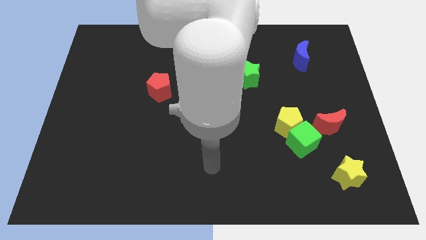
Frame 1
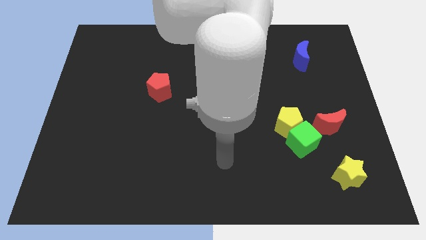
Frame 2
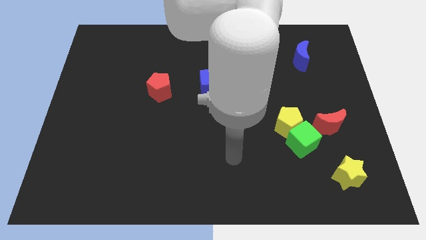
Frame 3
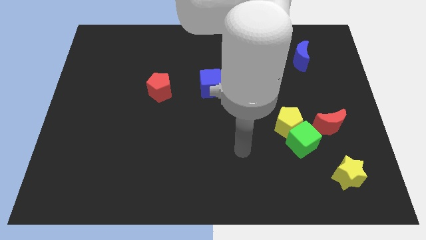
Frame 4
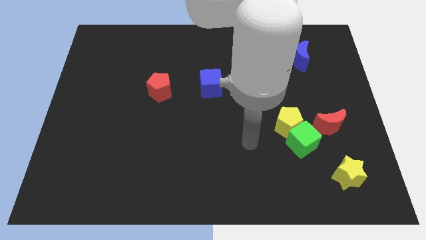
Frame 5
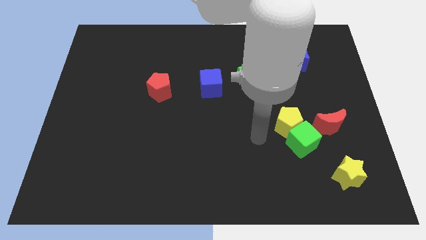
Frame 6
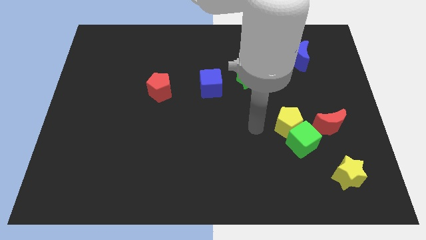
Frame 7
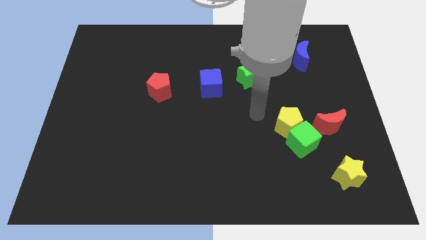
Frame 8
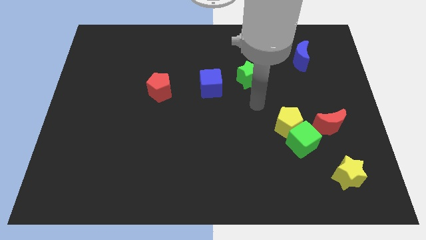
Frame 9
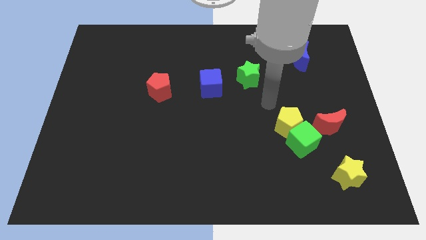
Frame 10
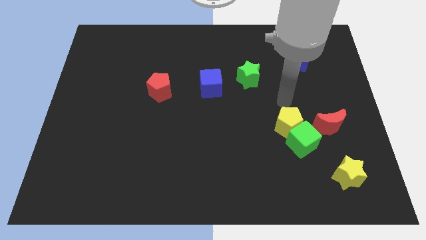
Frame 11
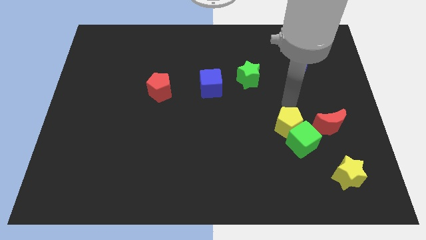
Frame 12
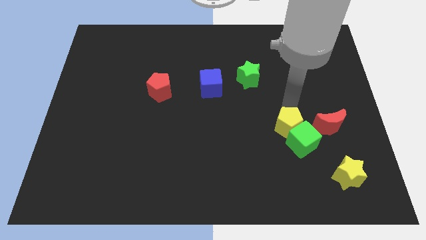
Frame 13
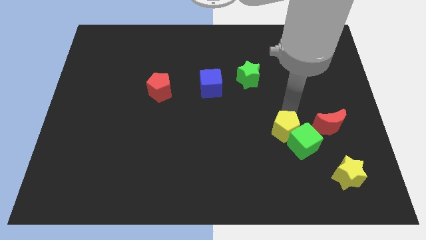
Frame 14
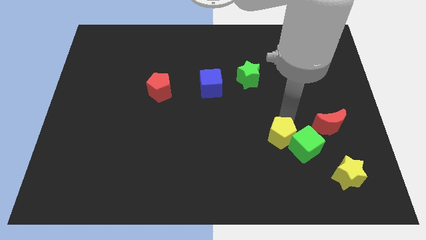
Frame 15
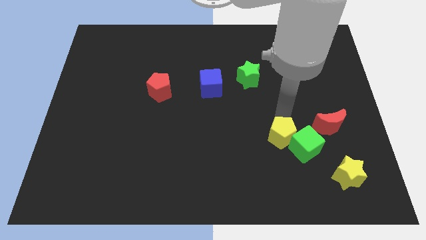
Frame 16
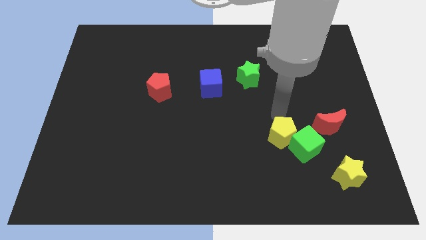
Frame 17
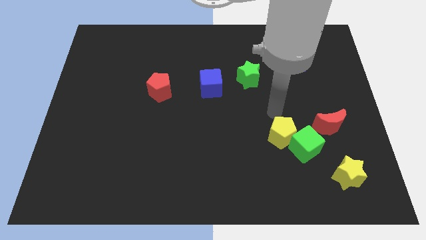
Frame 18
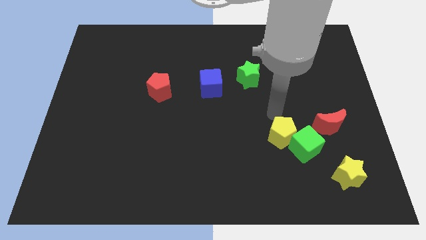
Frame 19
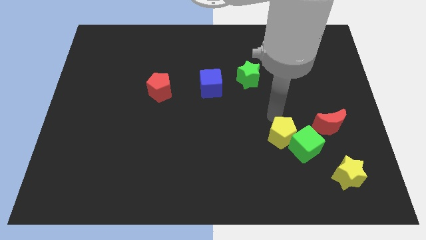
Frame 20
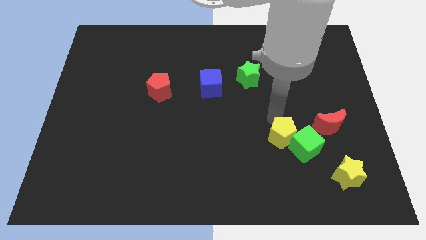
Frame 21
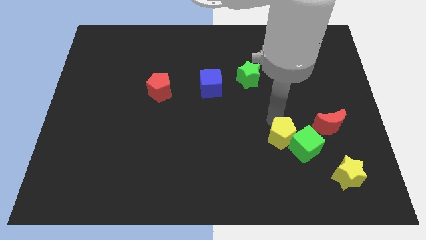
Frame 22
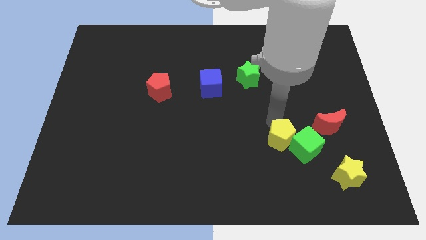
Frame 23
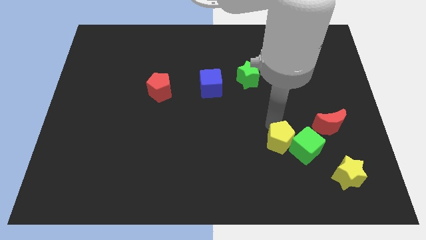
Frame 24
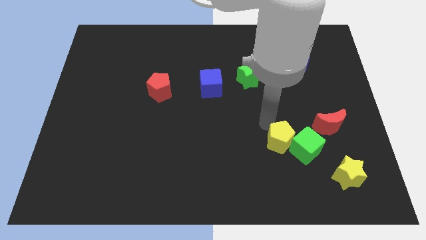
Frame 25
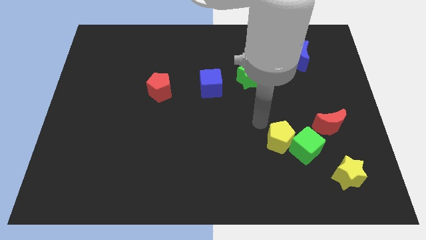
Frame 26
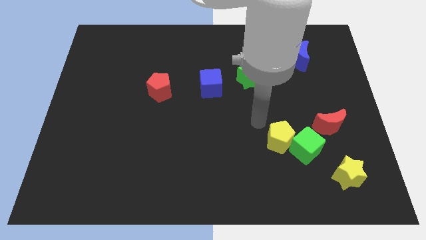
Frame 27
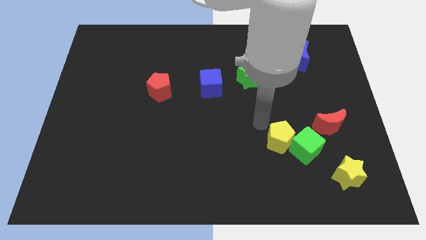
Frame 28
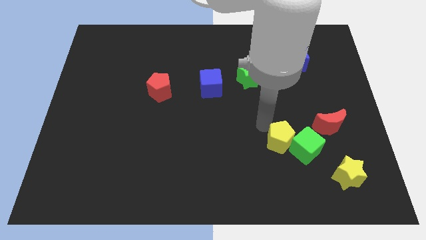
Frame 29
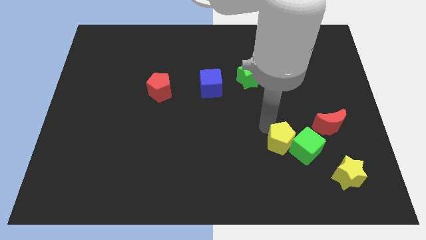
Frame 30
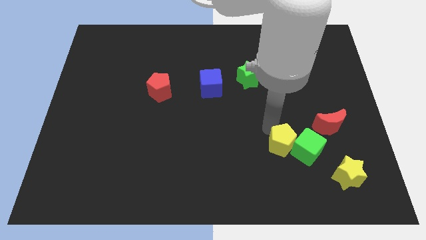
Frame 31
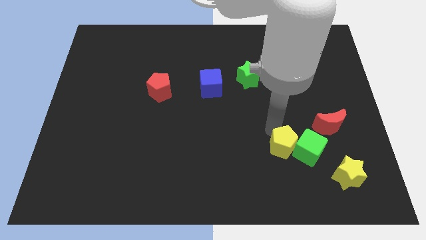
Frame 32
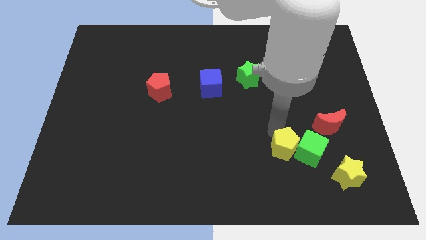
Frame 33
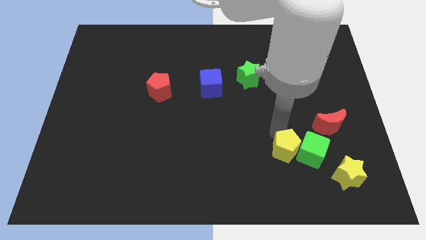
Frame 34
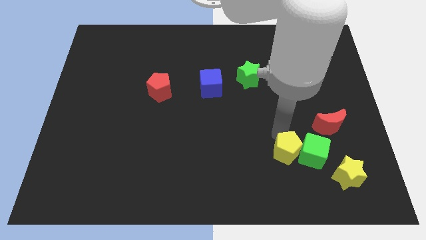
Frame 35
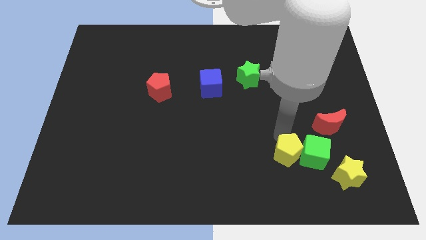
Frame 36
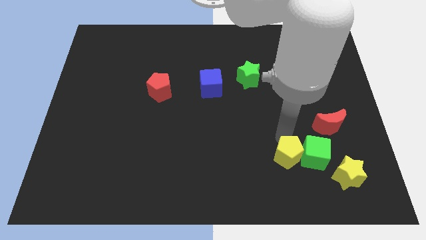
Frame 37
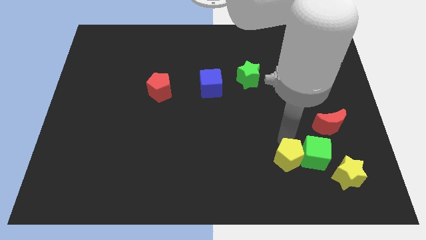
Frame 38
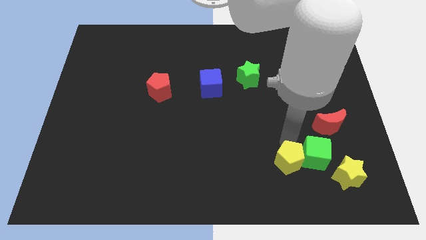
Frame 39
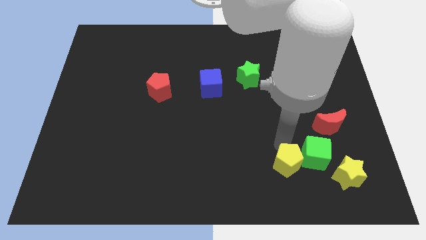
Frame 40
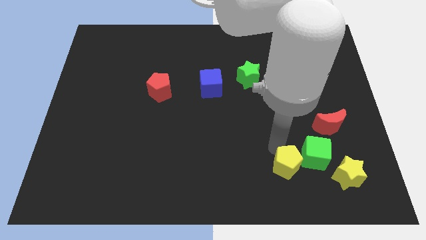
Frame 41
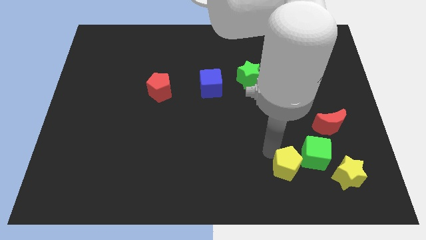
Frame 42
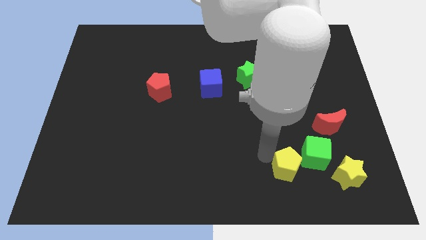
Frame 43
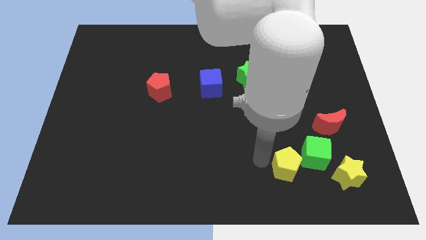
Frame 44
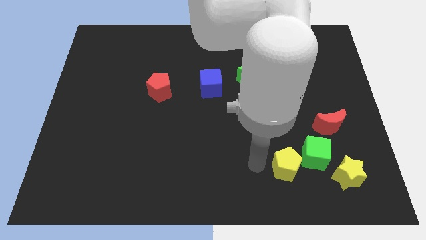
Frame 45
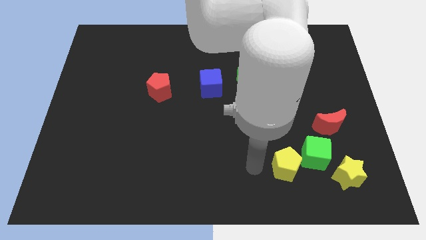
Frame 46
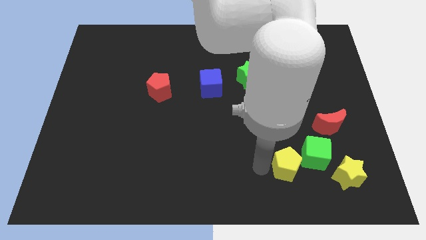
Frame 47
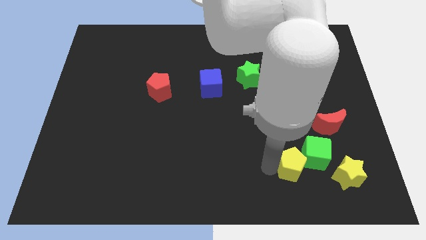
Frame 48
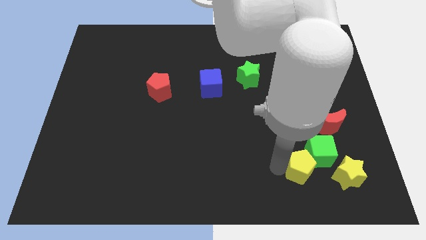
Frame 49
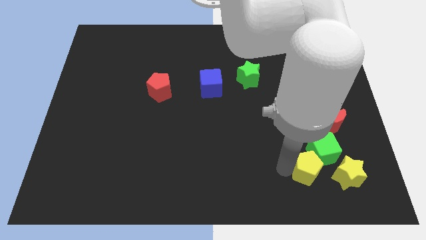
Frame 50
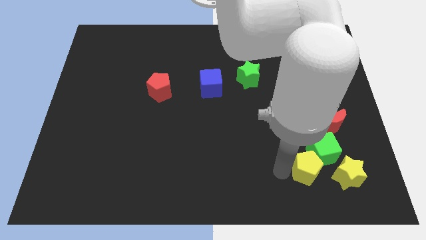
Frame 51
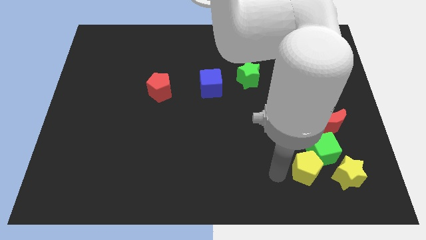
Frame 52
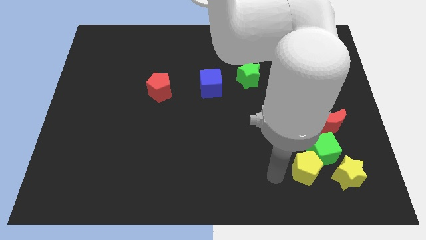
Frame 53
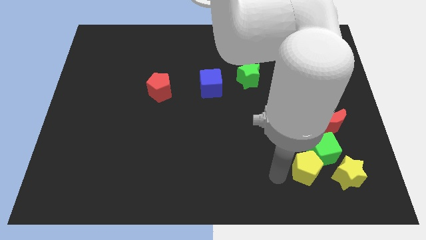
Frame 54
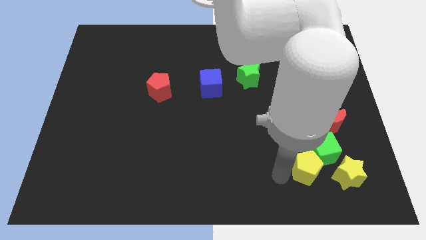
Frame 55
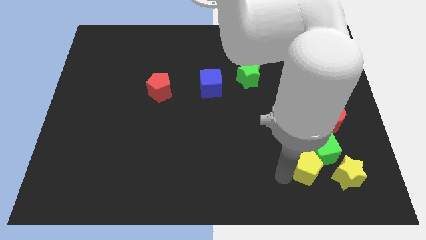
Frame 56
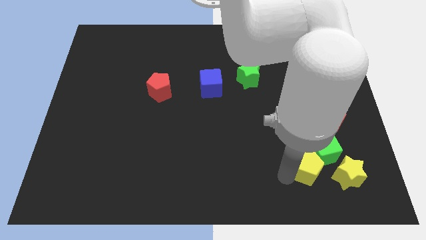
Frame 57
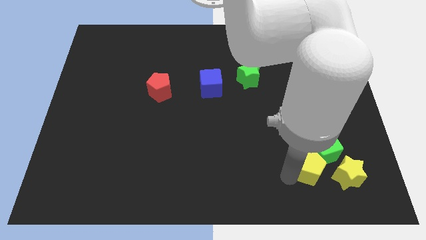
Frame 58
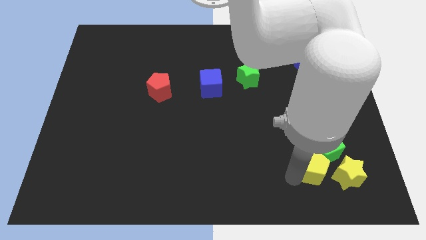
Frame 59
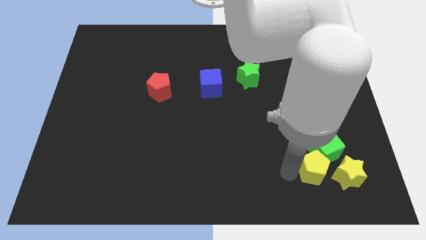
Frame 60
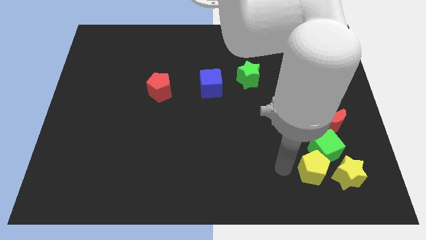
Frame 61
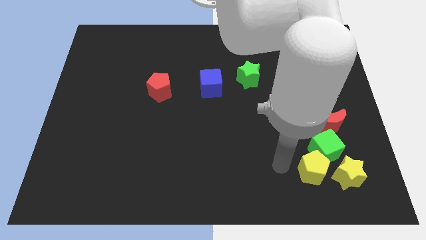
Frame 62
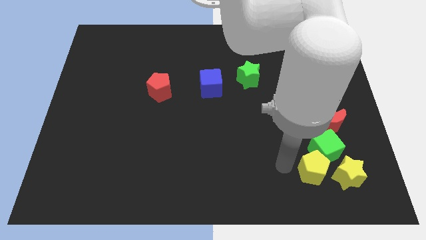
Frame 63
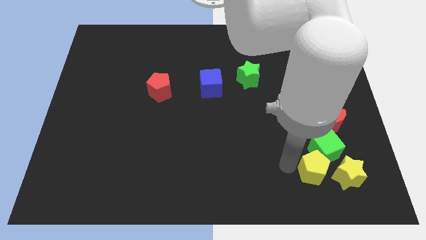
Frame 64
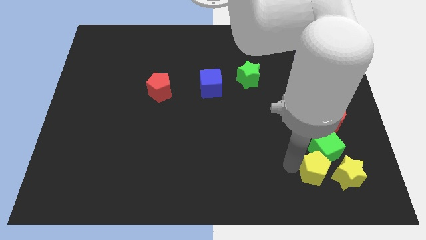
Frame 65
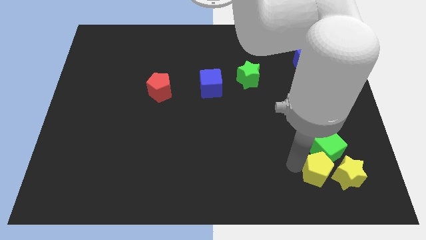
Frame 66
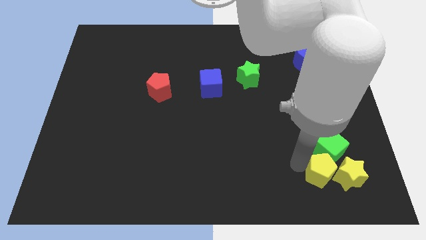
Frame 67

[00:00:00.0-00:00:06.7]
push the yellow pentagon next to the yellow star

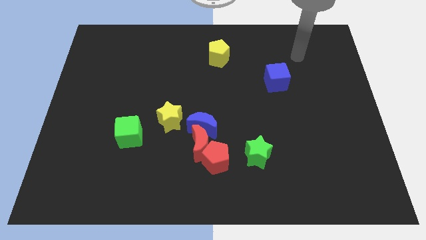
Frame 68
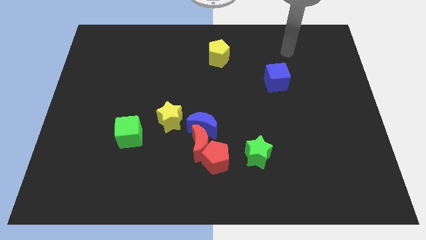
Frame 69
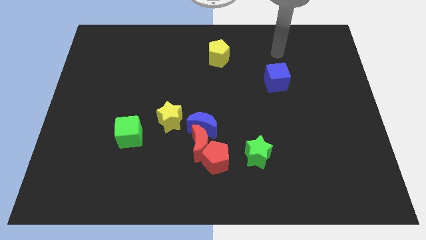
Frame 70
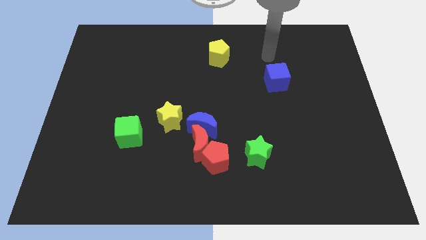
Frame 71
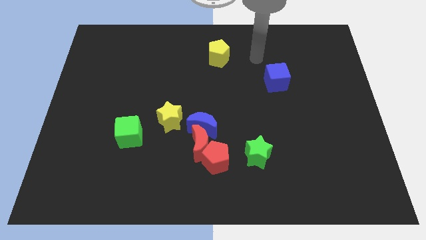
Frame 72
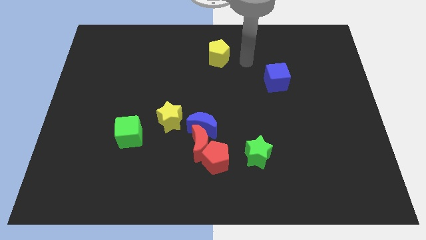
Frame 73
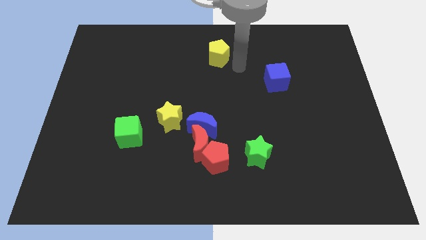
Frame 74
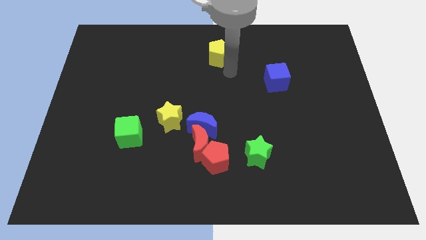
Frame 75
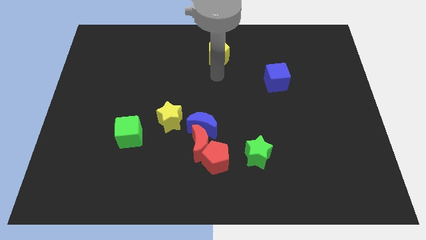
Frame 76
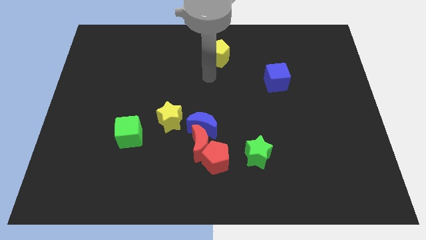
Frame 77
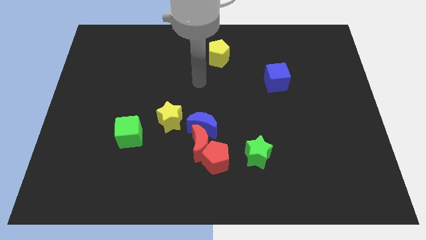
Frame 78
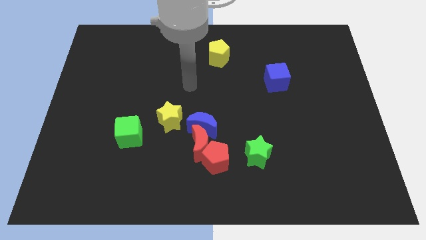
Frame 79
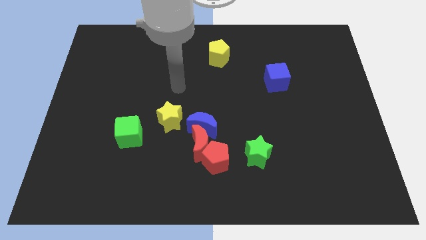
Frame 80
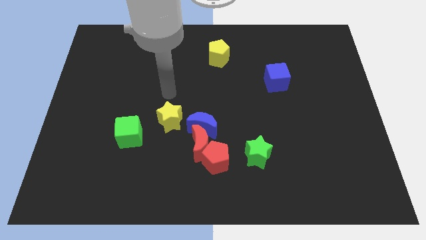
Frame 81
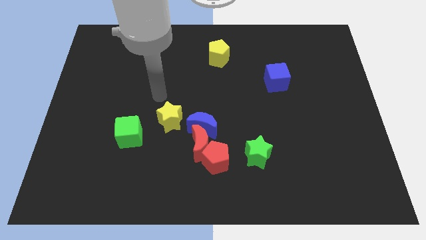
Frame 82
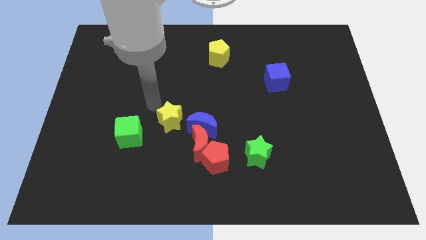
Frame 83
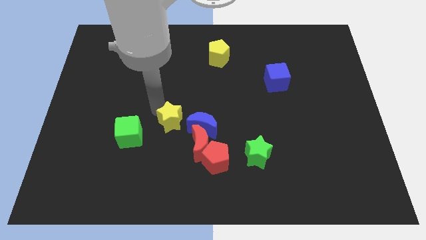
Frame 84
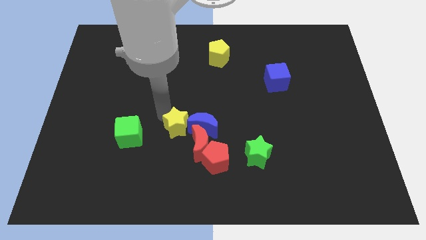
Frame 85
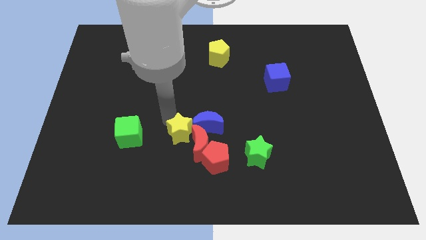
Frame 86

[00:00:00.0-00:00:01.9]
move the yellow star to the red moon
